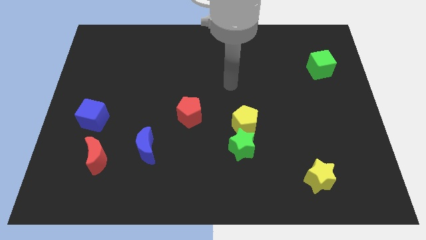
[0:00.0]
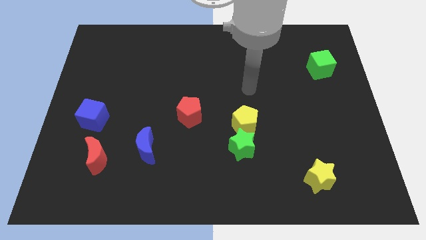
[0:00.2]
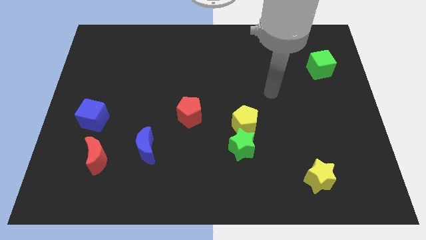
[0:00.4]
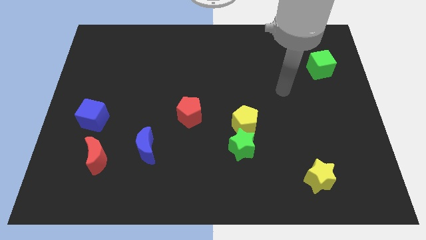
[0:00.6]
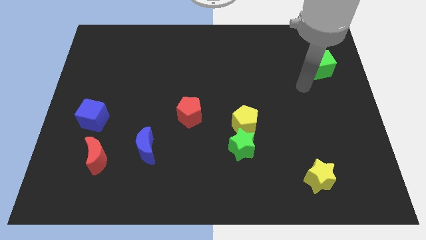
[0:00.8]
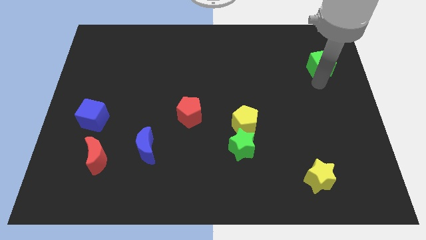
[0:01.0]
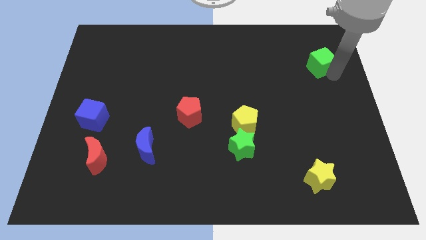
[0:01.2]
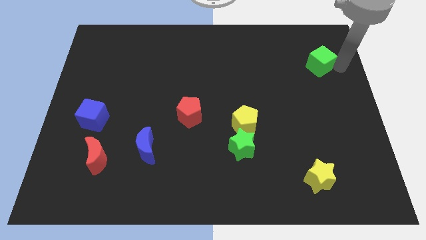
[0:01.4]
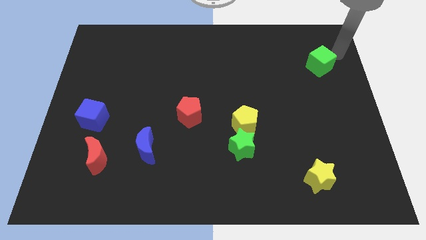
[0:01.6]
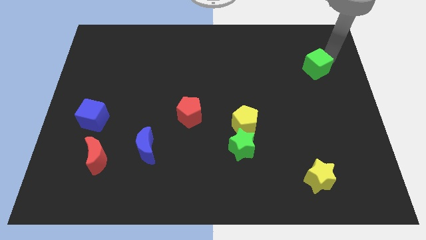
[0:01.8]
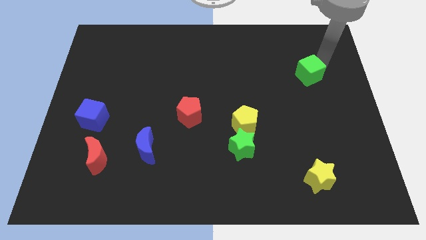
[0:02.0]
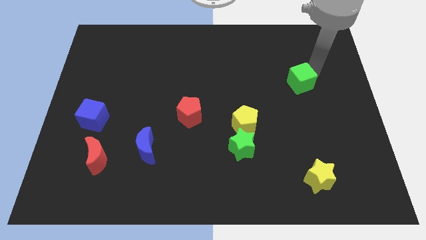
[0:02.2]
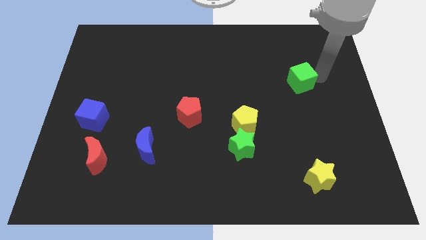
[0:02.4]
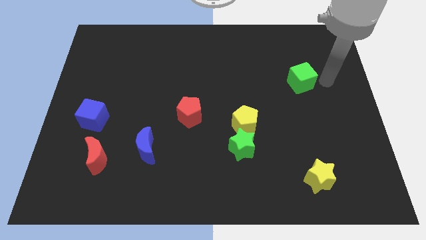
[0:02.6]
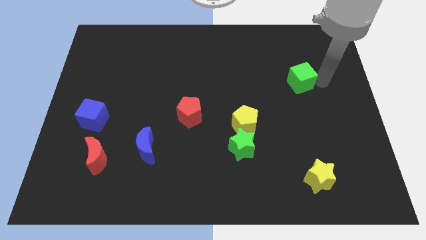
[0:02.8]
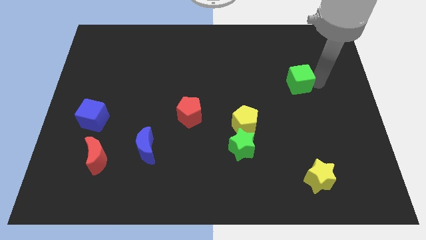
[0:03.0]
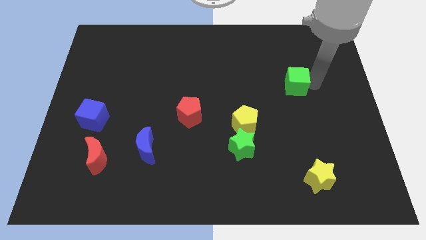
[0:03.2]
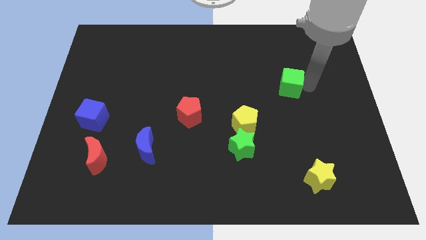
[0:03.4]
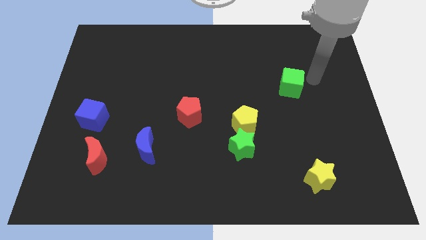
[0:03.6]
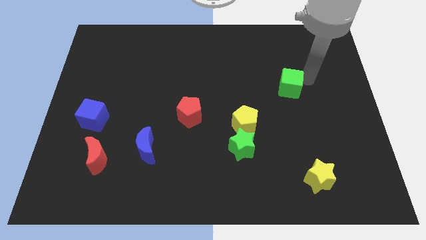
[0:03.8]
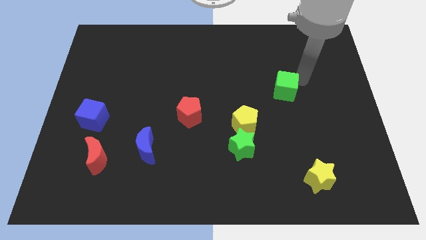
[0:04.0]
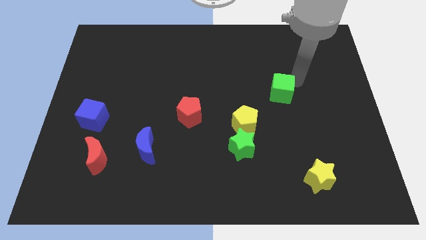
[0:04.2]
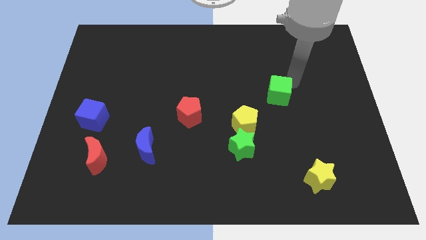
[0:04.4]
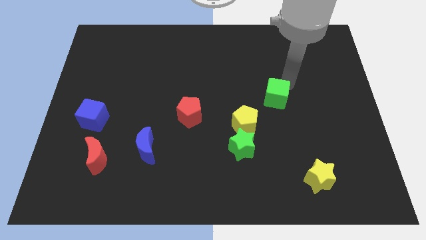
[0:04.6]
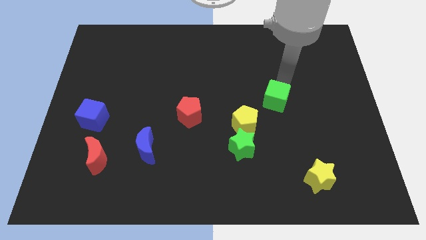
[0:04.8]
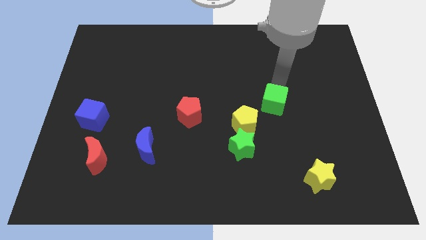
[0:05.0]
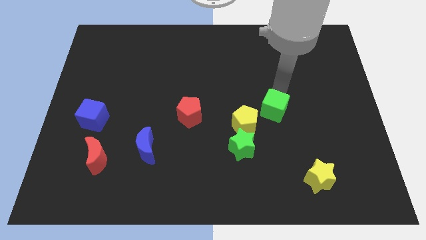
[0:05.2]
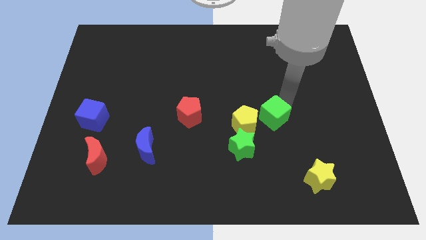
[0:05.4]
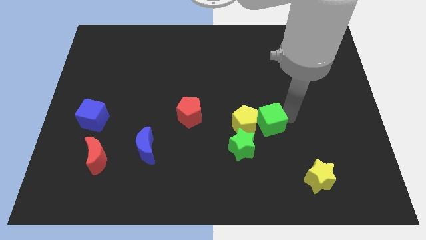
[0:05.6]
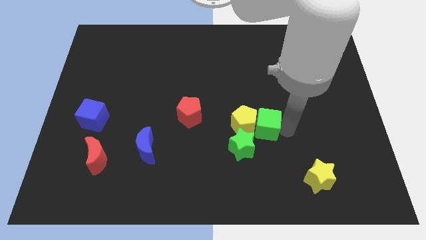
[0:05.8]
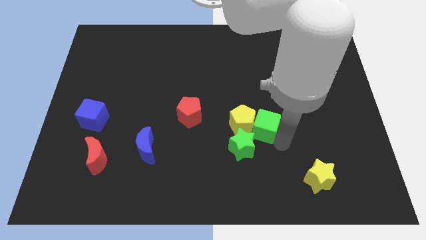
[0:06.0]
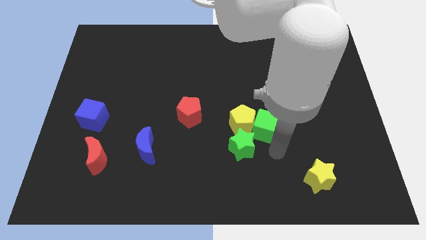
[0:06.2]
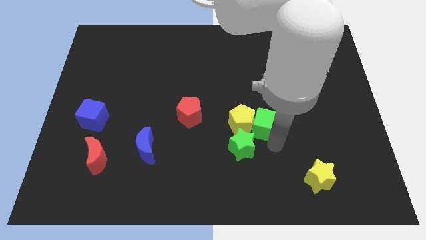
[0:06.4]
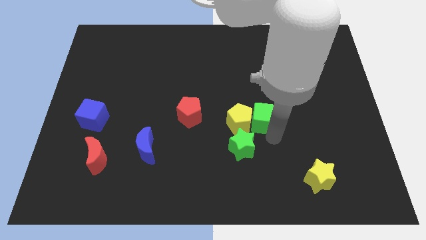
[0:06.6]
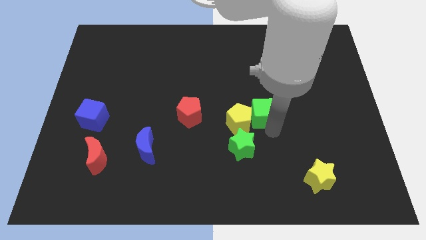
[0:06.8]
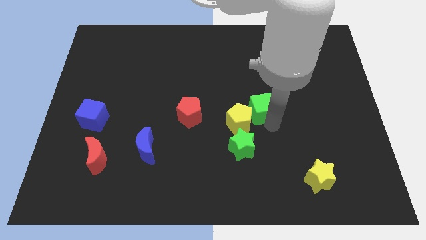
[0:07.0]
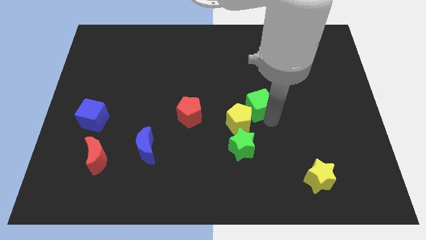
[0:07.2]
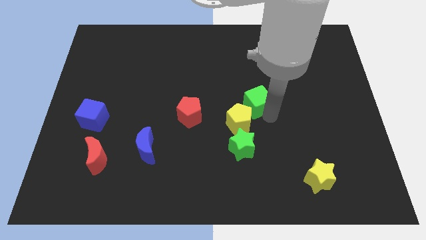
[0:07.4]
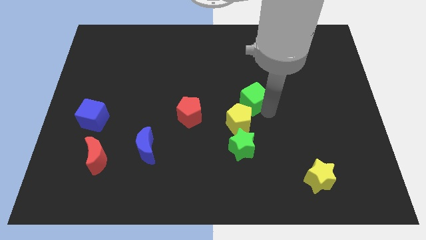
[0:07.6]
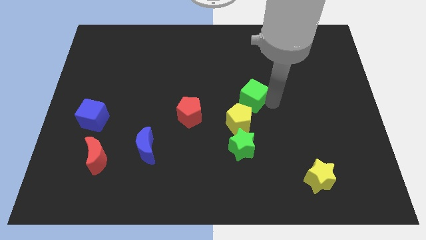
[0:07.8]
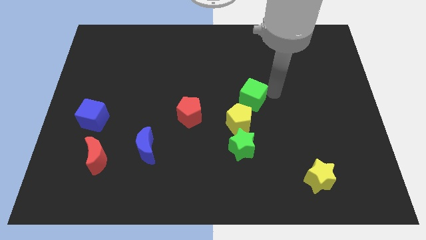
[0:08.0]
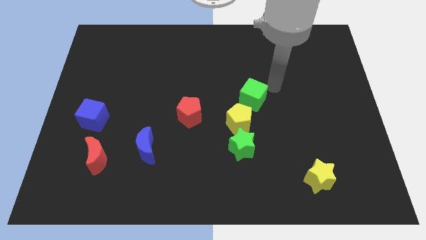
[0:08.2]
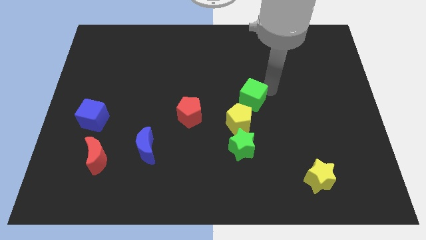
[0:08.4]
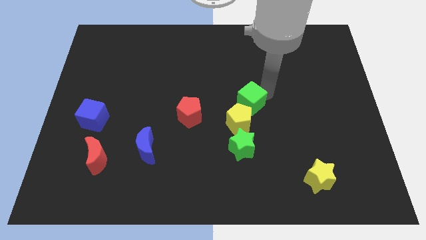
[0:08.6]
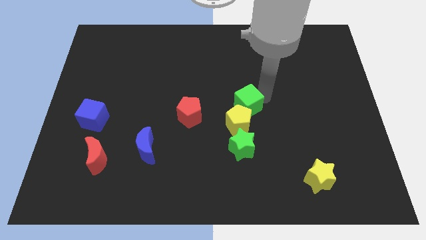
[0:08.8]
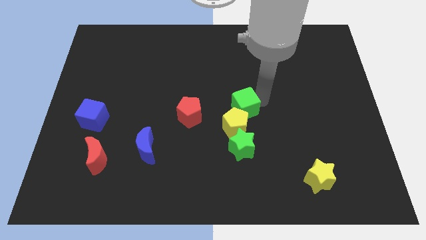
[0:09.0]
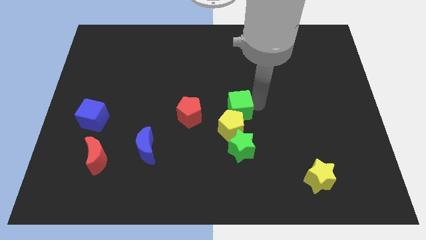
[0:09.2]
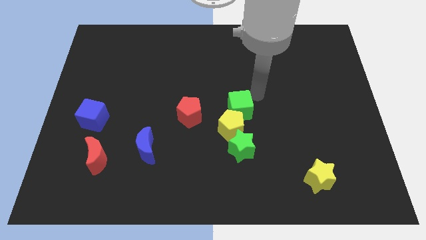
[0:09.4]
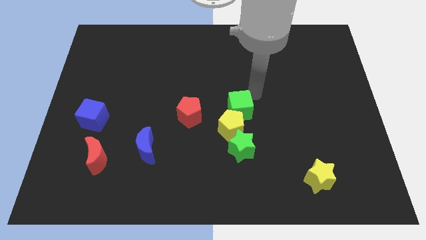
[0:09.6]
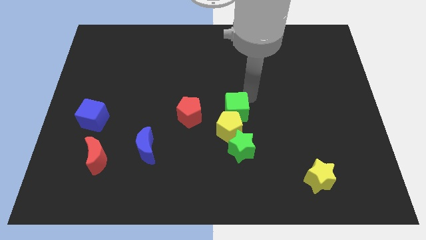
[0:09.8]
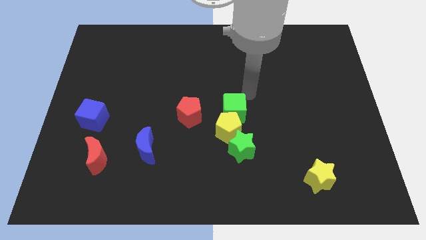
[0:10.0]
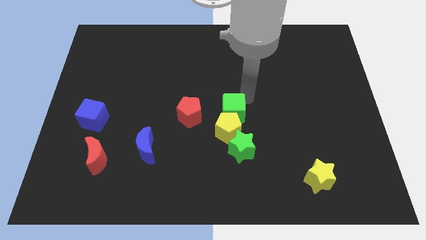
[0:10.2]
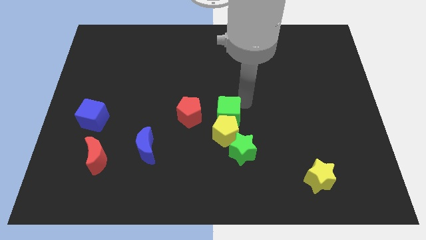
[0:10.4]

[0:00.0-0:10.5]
slide the green cube to the top left of the green star

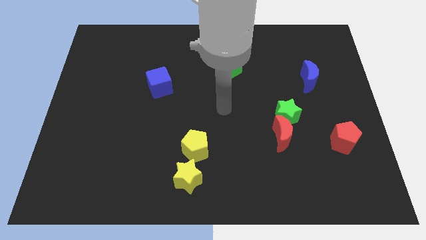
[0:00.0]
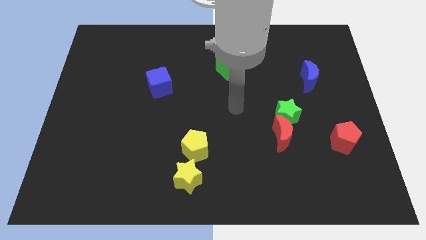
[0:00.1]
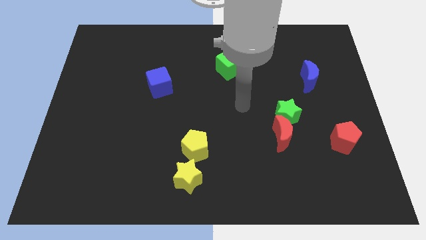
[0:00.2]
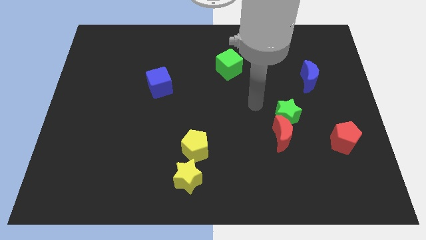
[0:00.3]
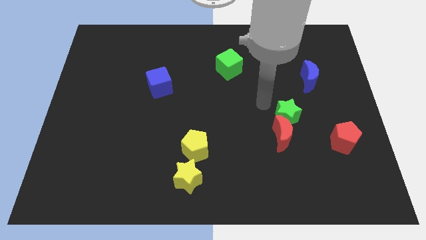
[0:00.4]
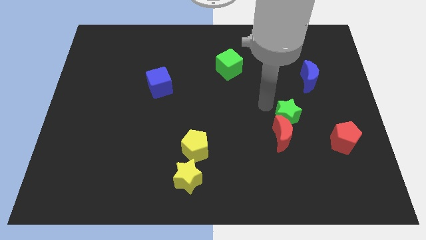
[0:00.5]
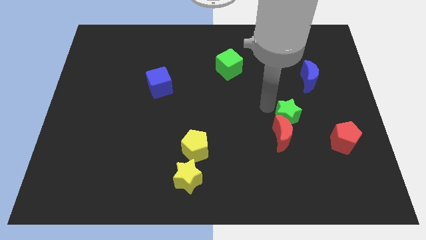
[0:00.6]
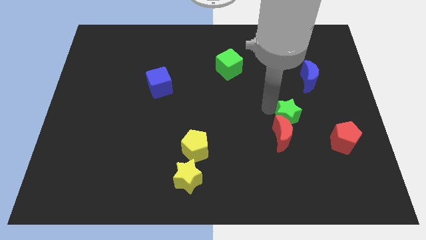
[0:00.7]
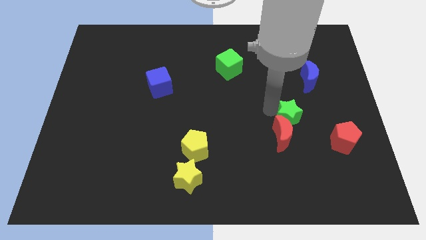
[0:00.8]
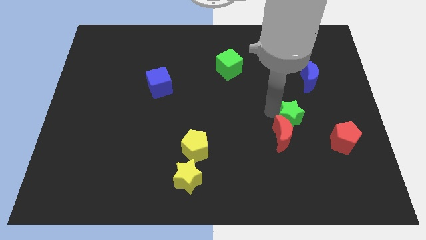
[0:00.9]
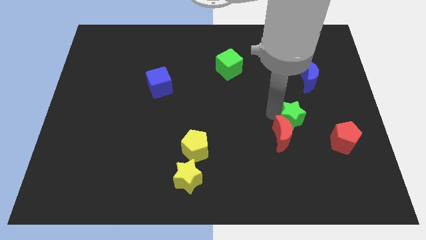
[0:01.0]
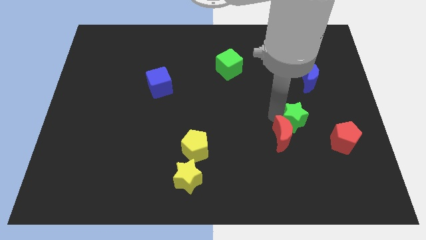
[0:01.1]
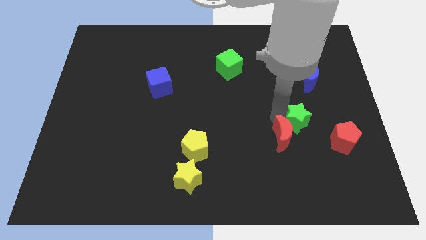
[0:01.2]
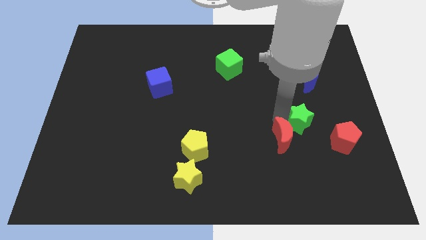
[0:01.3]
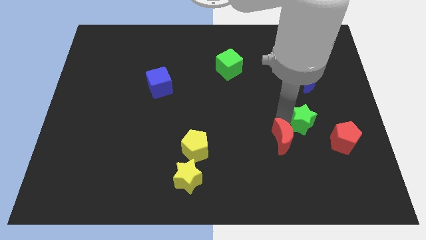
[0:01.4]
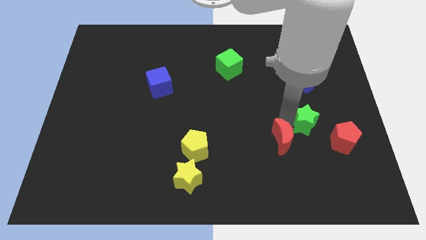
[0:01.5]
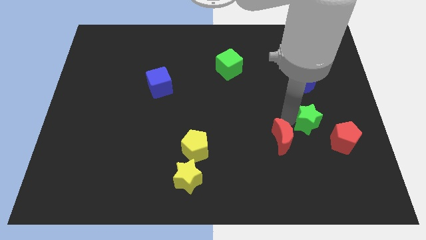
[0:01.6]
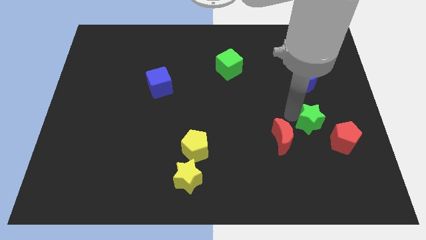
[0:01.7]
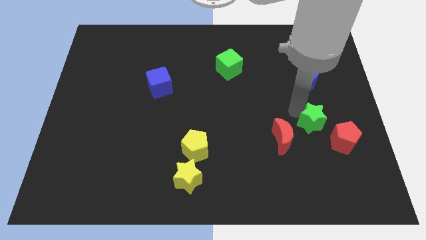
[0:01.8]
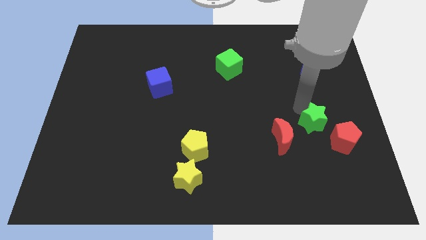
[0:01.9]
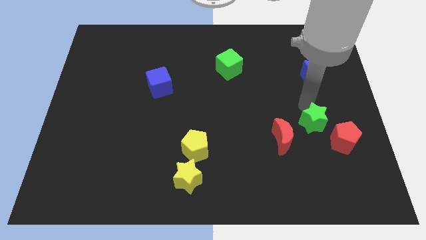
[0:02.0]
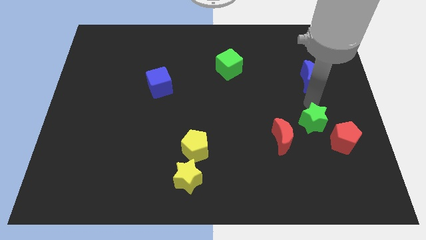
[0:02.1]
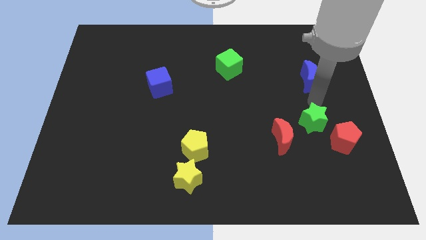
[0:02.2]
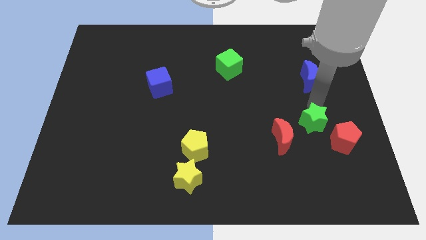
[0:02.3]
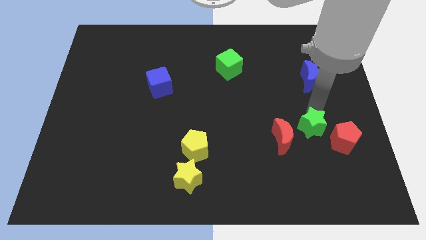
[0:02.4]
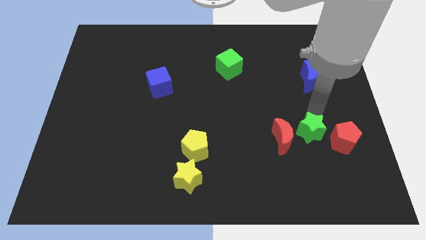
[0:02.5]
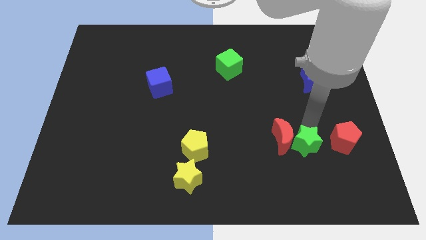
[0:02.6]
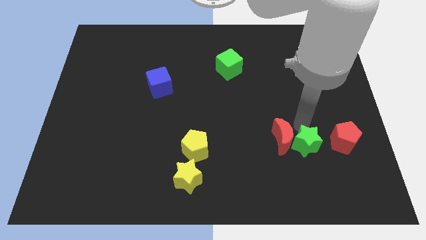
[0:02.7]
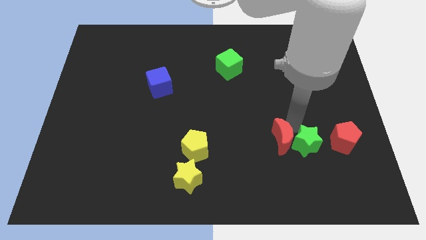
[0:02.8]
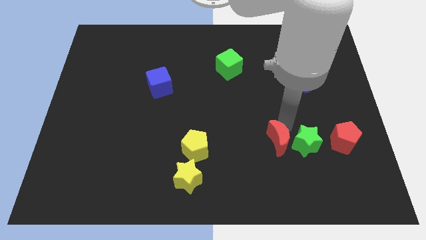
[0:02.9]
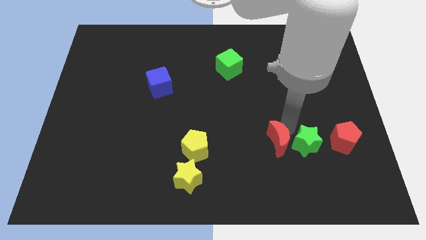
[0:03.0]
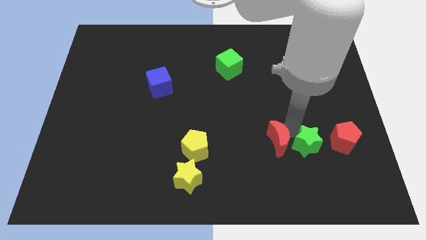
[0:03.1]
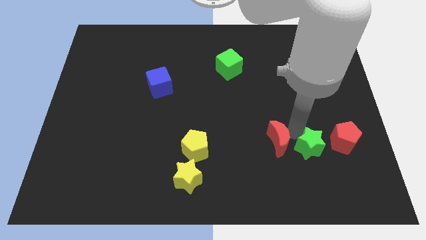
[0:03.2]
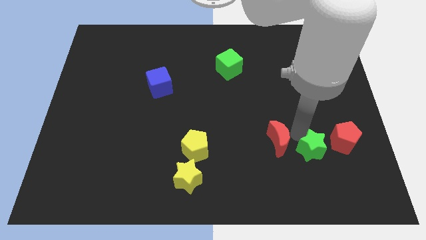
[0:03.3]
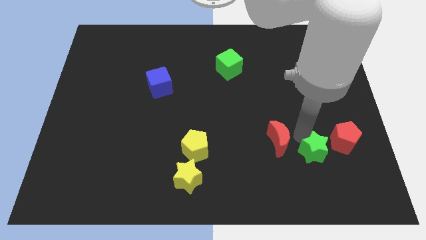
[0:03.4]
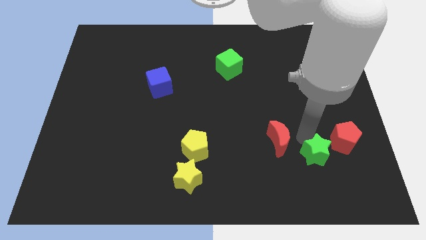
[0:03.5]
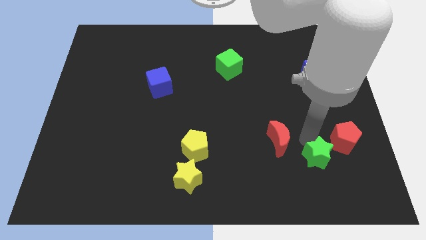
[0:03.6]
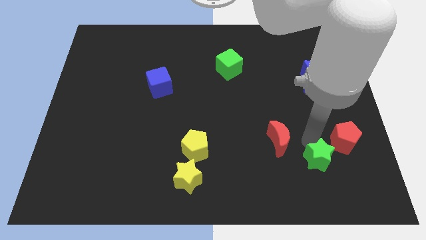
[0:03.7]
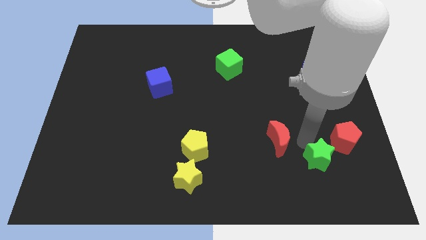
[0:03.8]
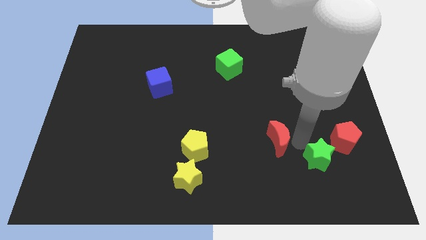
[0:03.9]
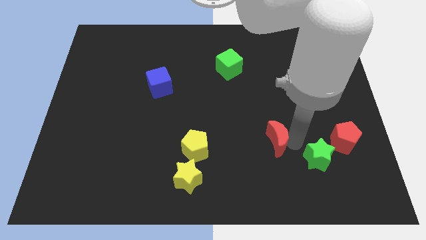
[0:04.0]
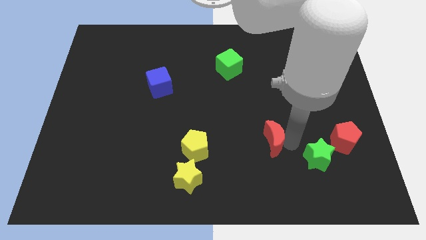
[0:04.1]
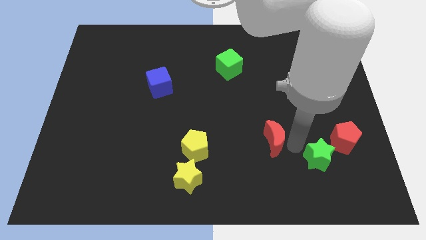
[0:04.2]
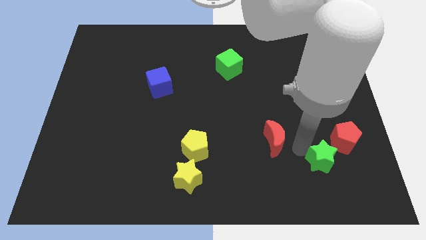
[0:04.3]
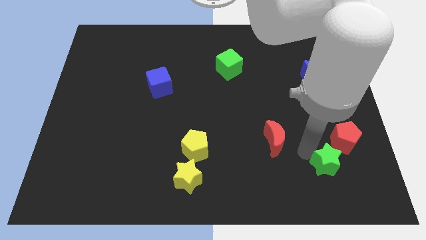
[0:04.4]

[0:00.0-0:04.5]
slide the green star to the bottom side of the red pentagon
